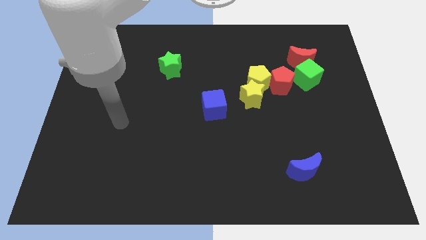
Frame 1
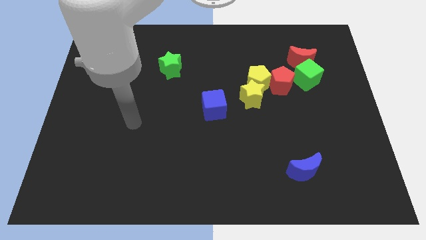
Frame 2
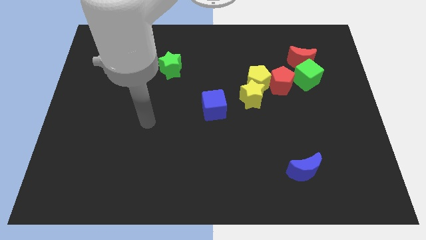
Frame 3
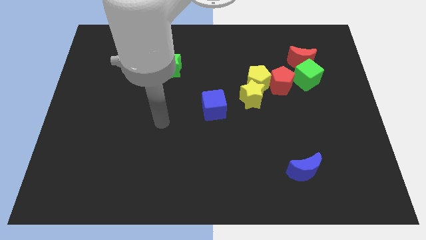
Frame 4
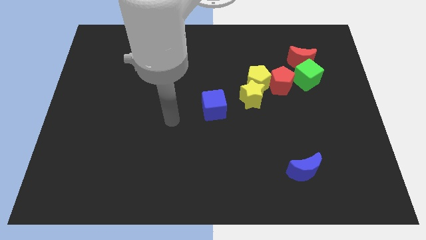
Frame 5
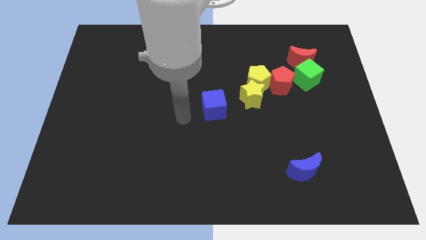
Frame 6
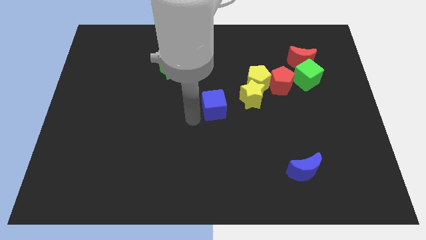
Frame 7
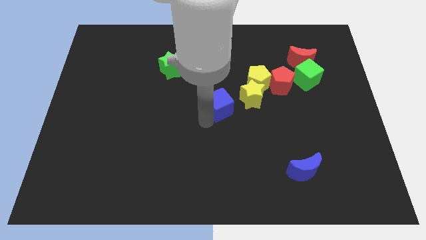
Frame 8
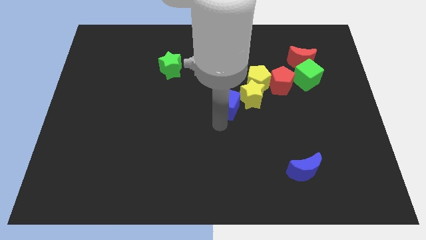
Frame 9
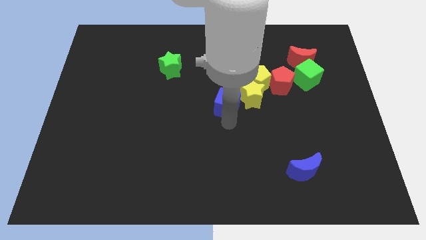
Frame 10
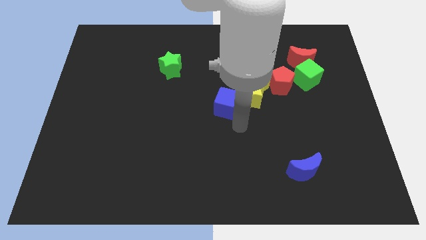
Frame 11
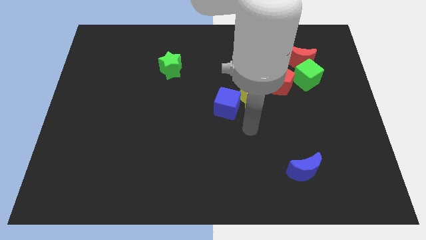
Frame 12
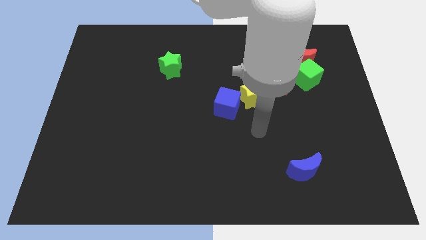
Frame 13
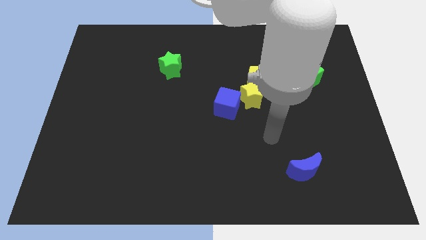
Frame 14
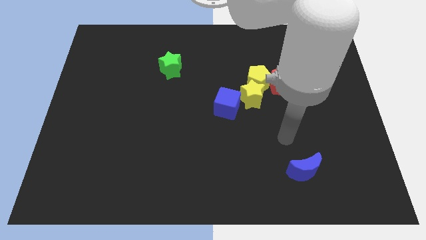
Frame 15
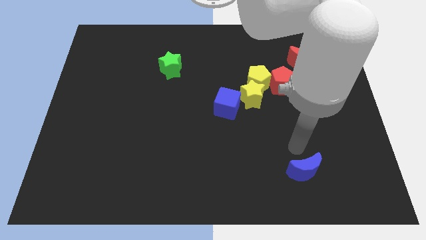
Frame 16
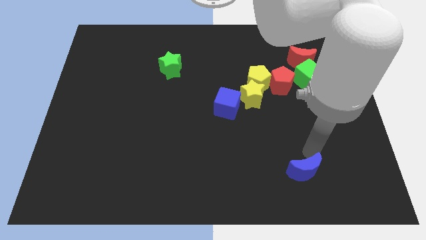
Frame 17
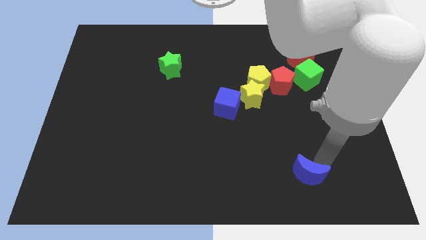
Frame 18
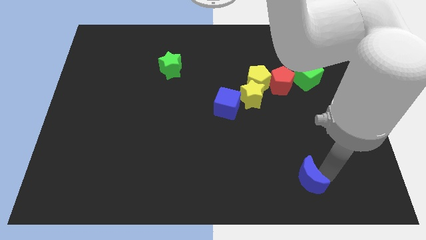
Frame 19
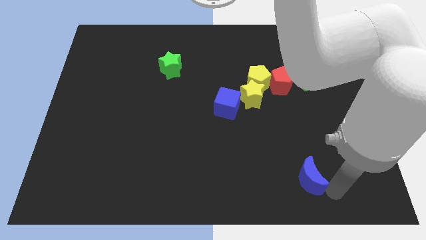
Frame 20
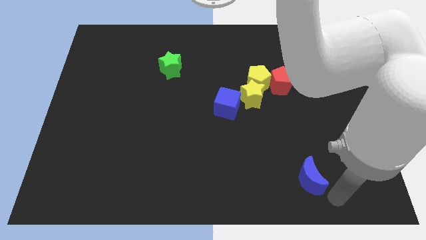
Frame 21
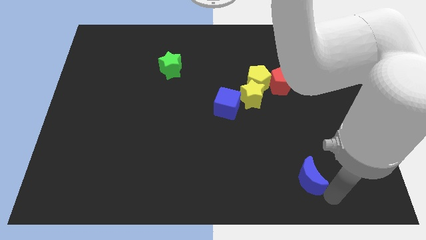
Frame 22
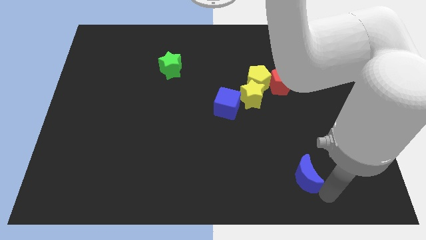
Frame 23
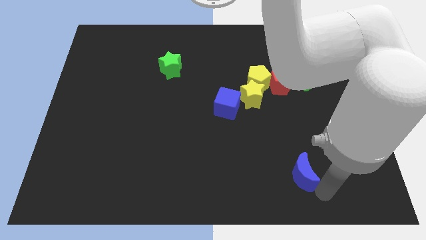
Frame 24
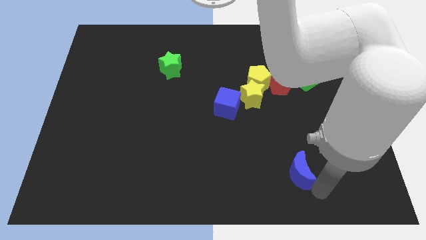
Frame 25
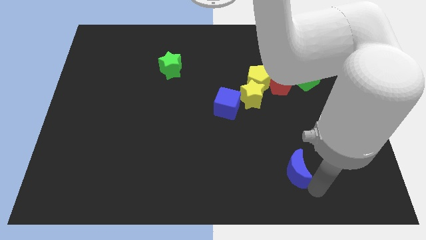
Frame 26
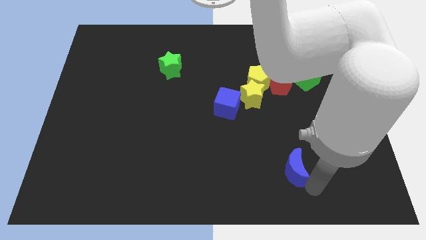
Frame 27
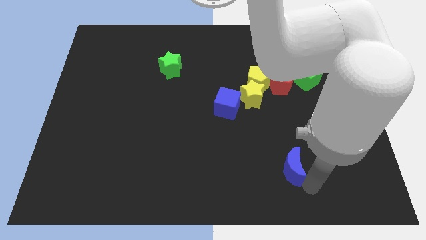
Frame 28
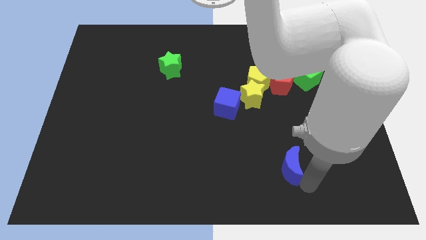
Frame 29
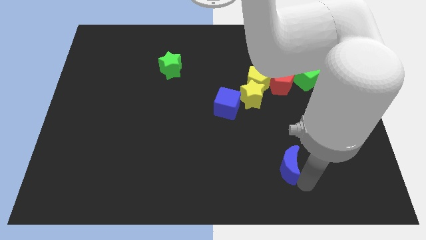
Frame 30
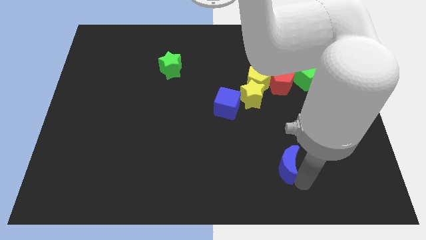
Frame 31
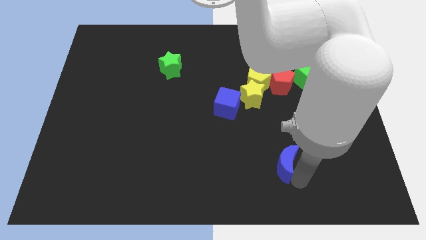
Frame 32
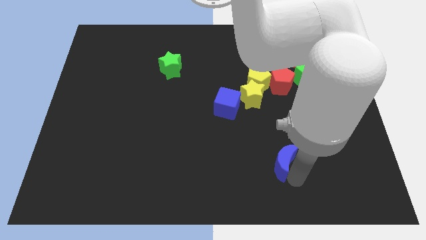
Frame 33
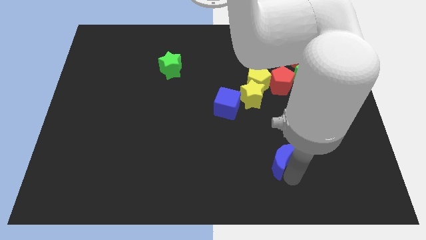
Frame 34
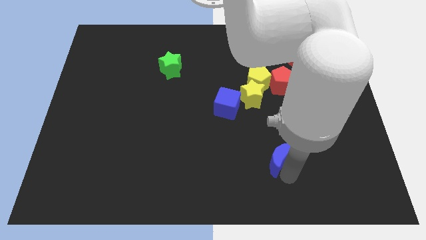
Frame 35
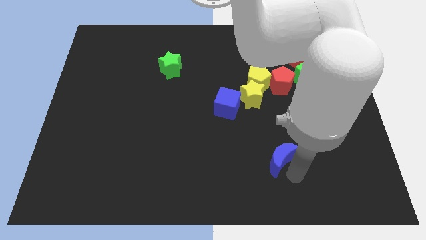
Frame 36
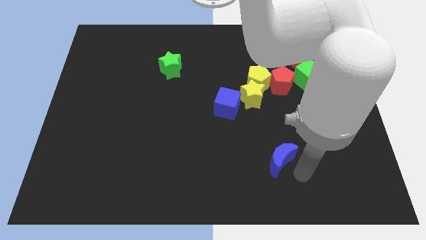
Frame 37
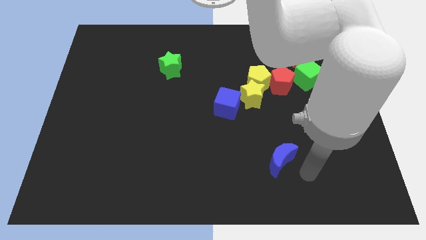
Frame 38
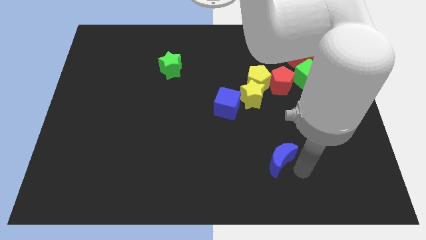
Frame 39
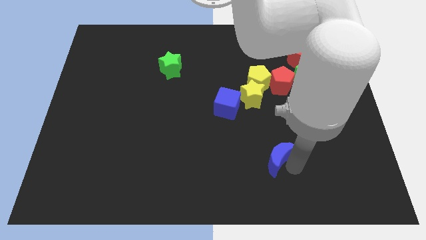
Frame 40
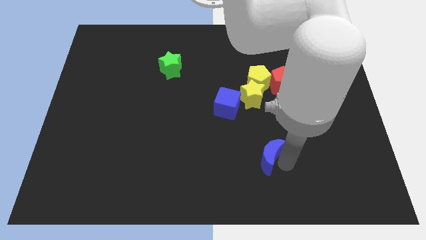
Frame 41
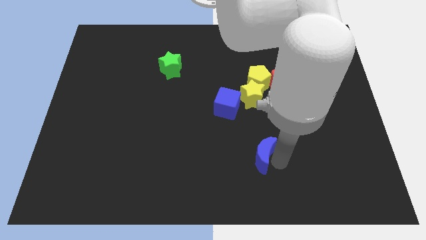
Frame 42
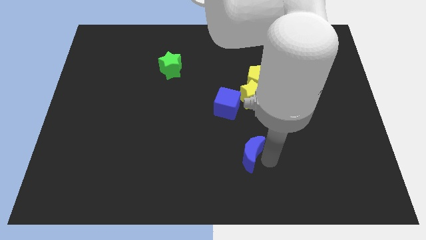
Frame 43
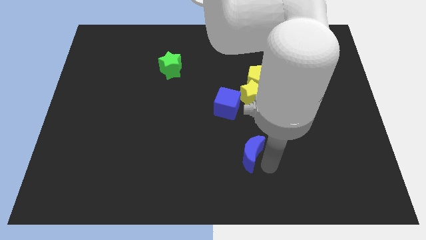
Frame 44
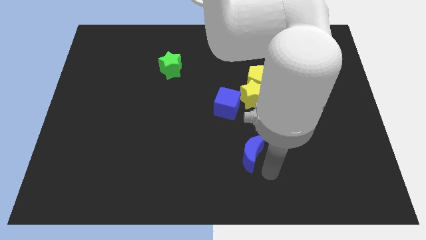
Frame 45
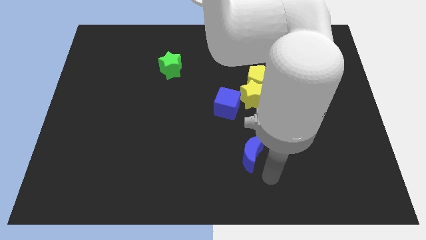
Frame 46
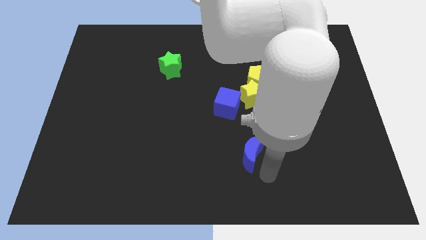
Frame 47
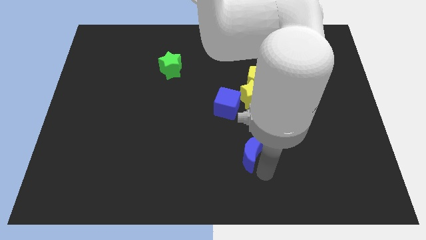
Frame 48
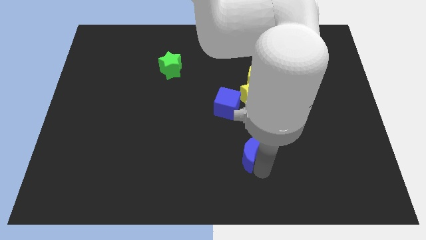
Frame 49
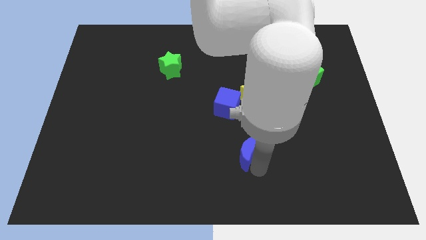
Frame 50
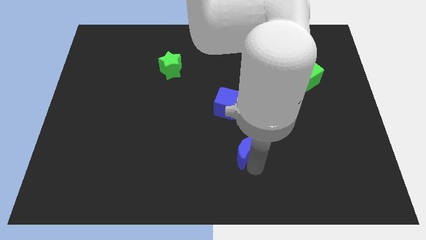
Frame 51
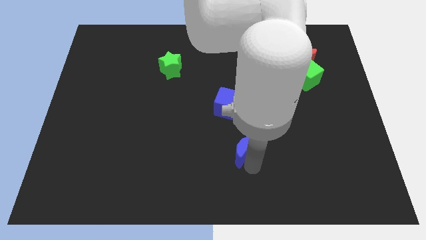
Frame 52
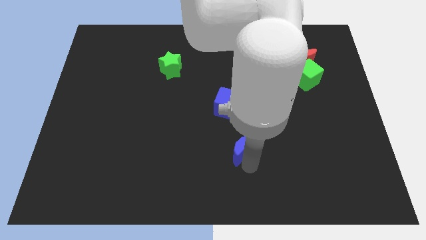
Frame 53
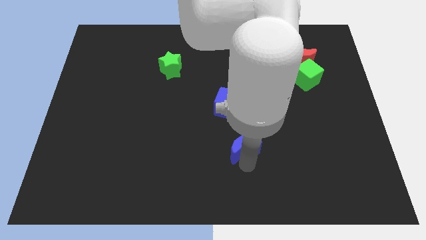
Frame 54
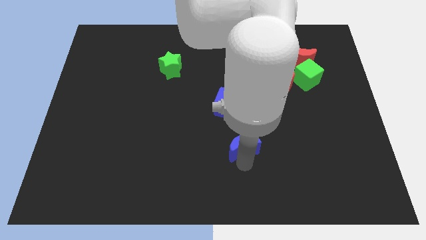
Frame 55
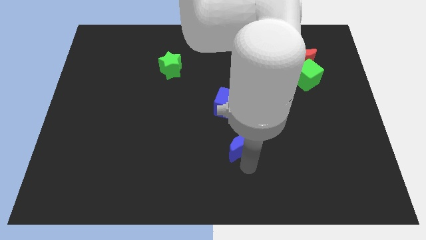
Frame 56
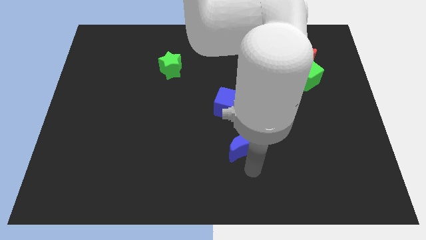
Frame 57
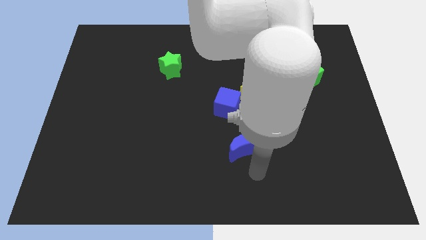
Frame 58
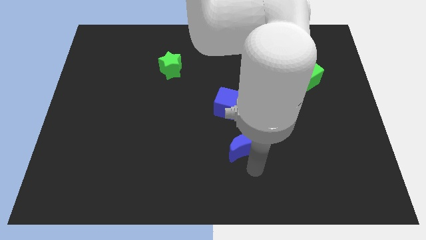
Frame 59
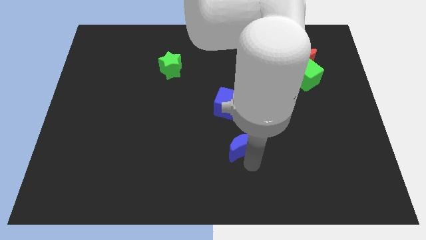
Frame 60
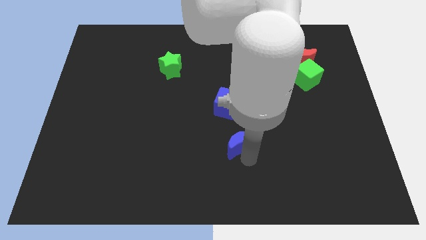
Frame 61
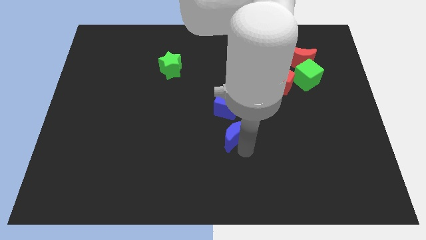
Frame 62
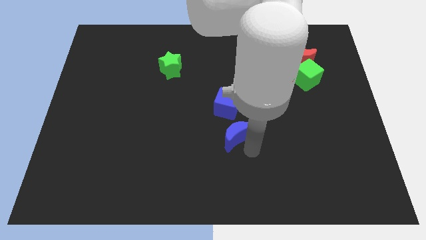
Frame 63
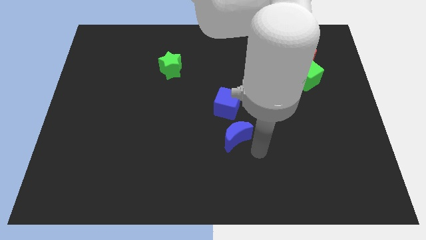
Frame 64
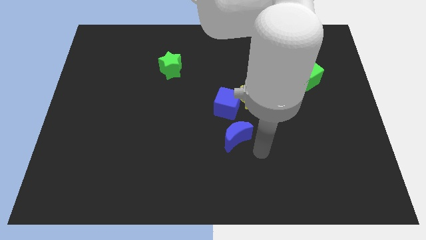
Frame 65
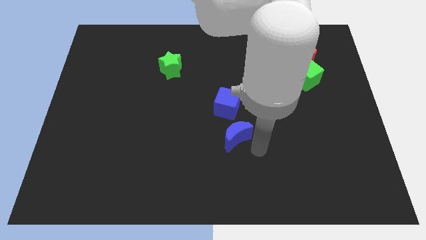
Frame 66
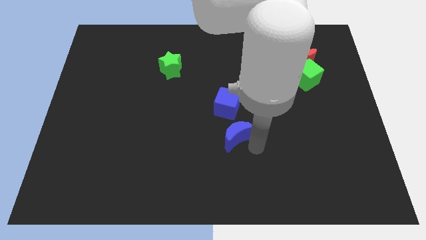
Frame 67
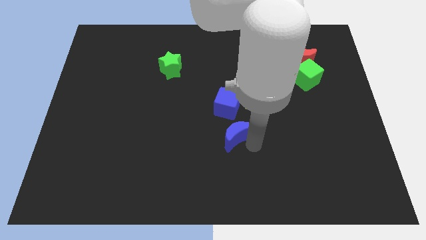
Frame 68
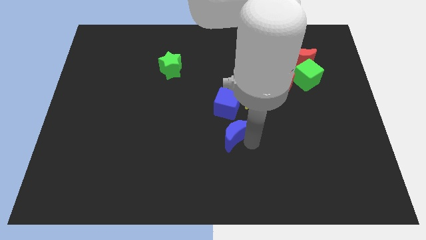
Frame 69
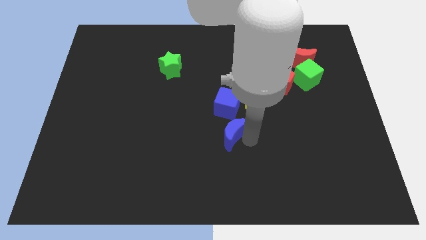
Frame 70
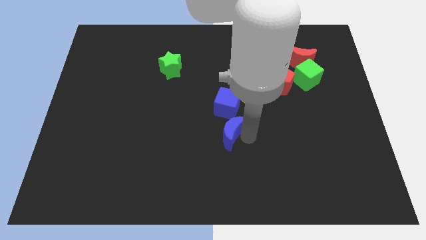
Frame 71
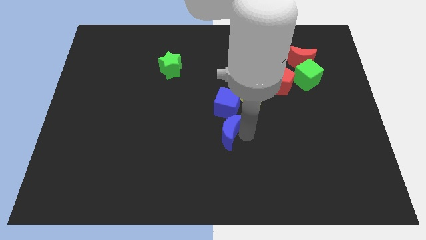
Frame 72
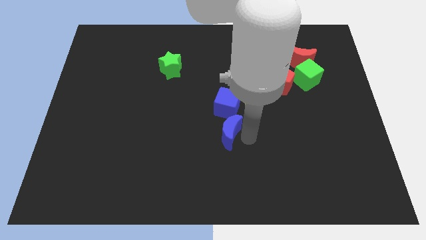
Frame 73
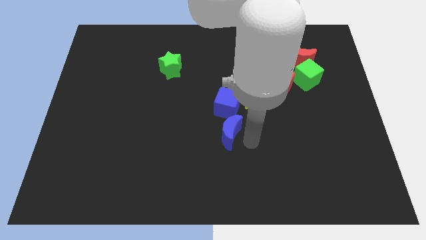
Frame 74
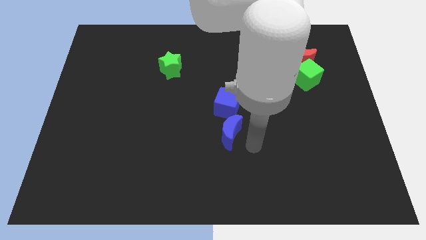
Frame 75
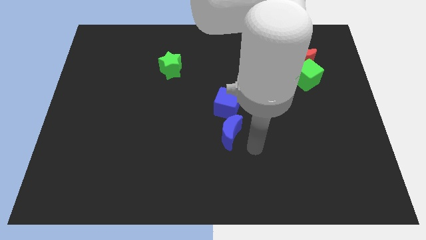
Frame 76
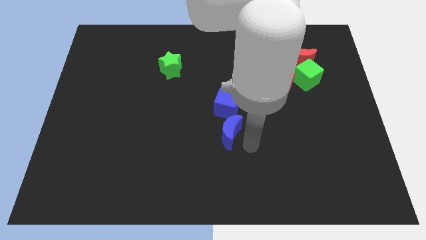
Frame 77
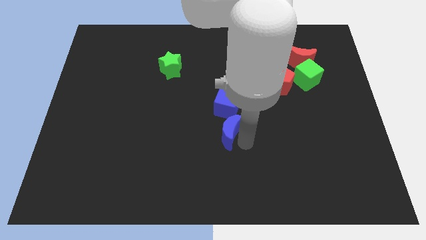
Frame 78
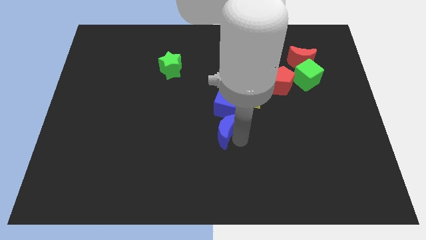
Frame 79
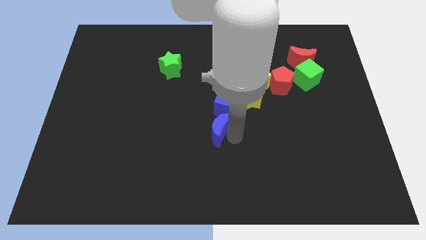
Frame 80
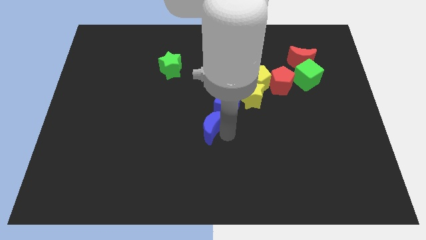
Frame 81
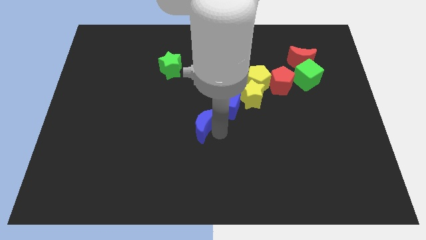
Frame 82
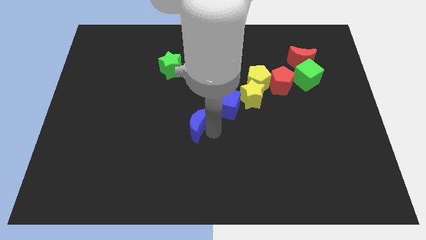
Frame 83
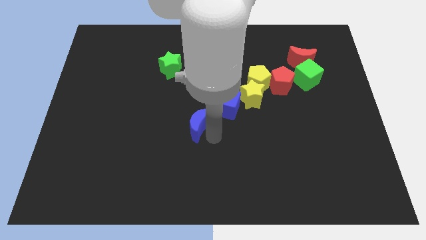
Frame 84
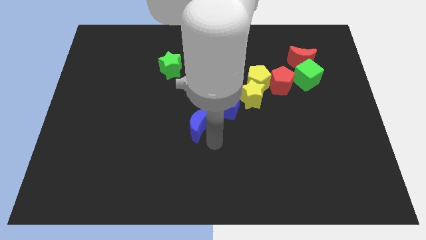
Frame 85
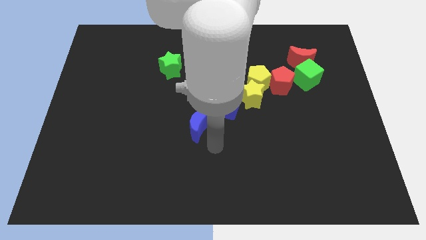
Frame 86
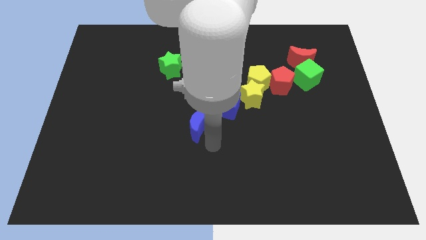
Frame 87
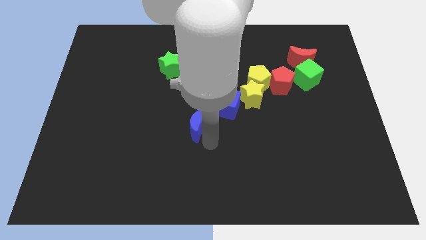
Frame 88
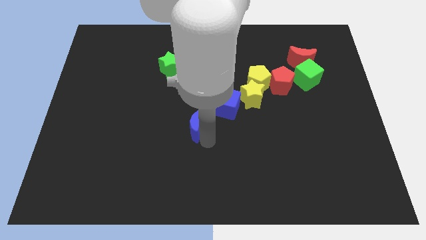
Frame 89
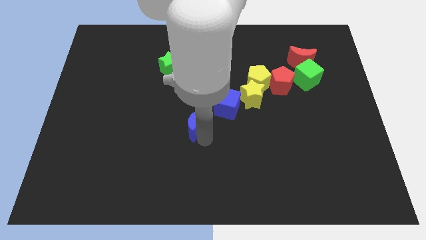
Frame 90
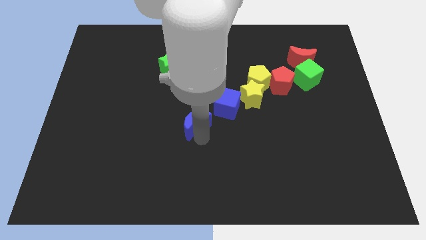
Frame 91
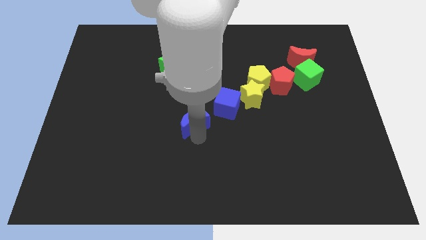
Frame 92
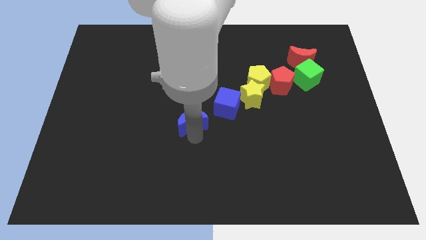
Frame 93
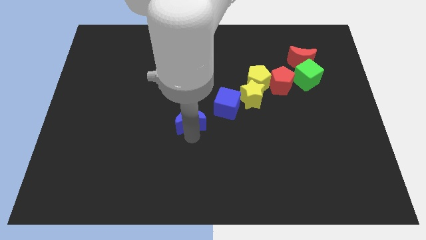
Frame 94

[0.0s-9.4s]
put the blue moon to the left of the blue cube
